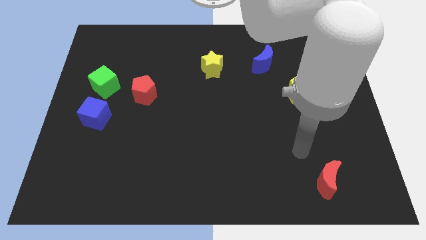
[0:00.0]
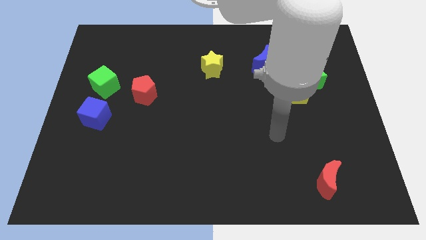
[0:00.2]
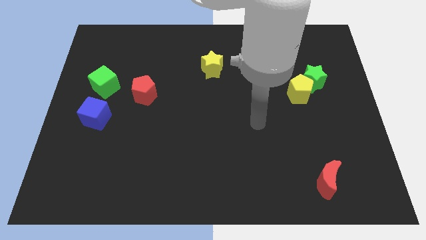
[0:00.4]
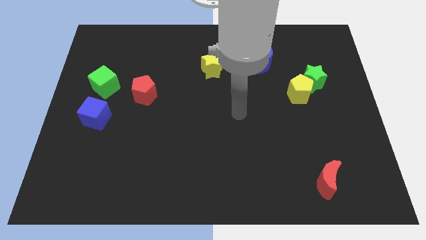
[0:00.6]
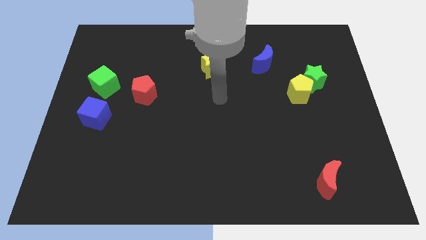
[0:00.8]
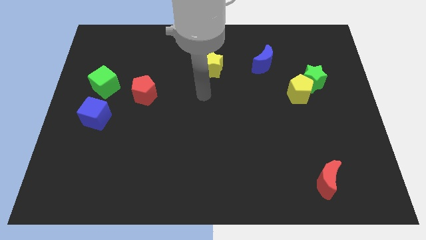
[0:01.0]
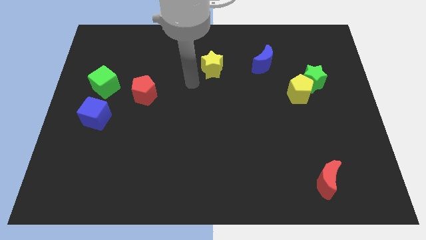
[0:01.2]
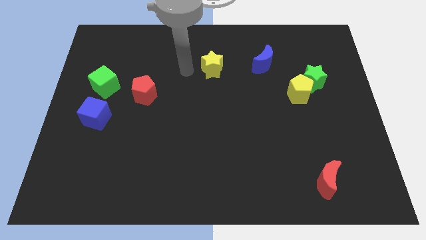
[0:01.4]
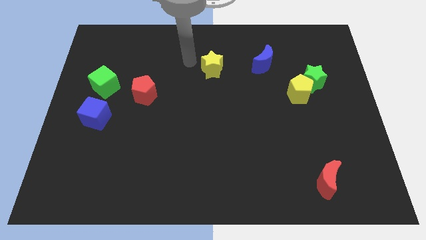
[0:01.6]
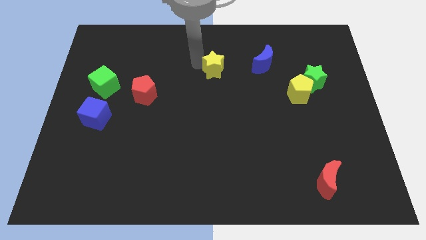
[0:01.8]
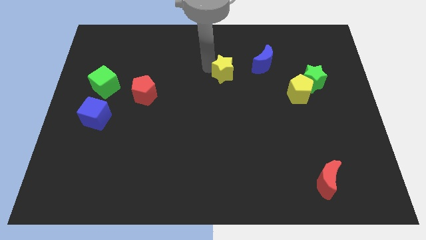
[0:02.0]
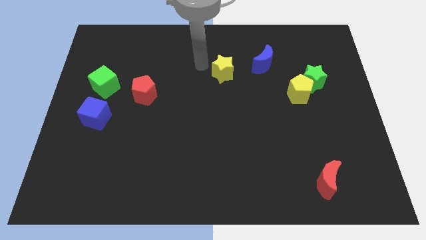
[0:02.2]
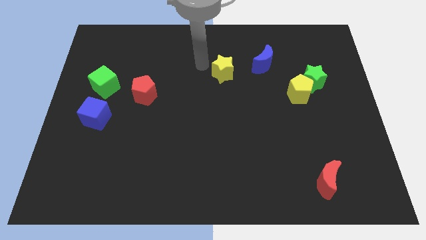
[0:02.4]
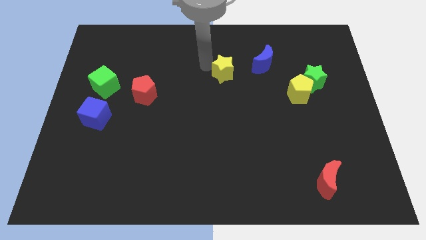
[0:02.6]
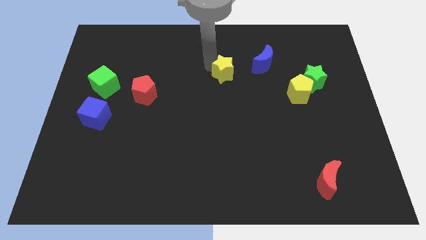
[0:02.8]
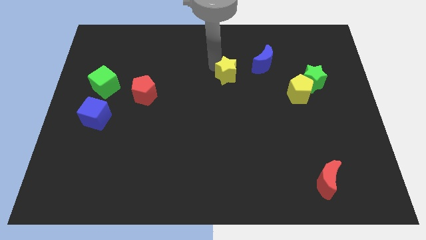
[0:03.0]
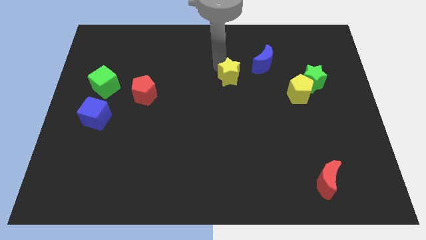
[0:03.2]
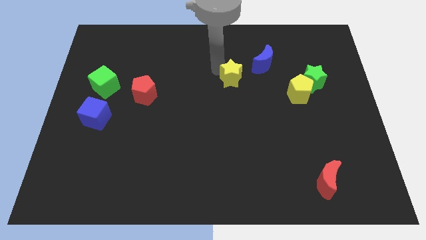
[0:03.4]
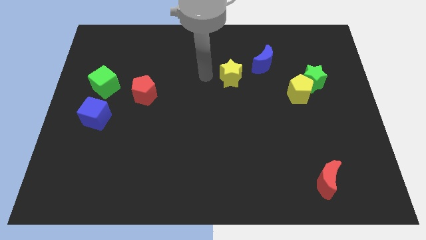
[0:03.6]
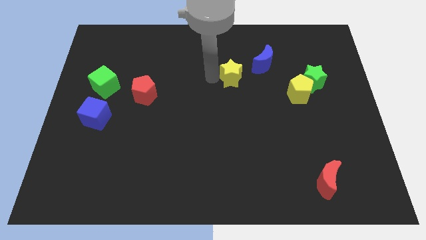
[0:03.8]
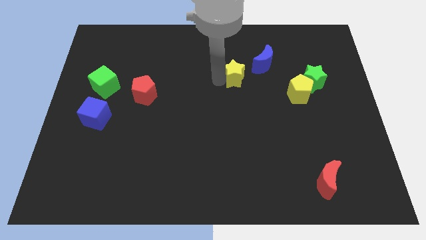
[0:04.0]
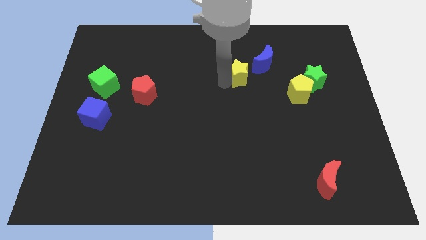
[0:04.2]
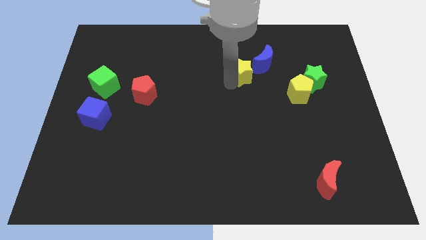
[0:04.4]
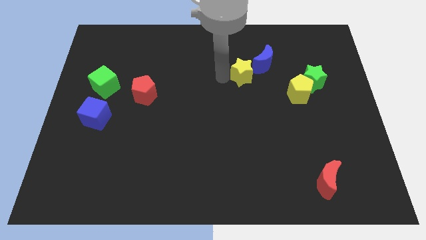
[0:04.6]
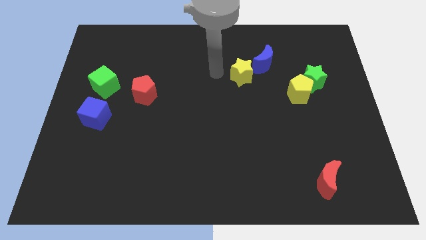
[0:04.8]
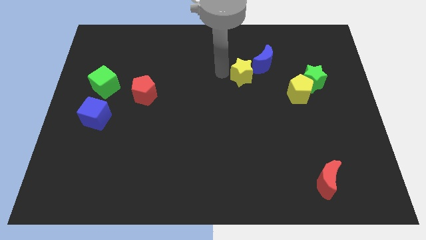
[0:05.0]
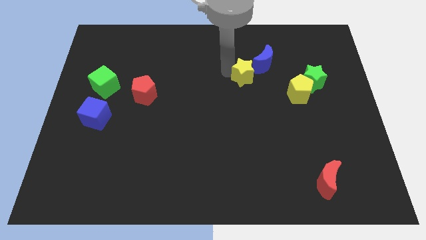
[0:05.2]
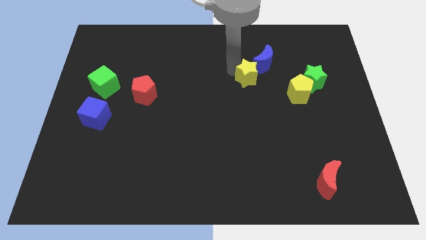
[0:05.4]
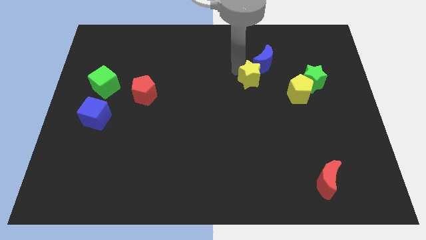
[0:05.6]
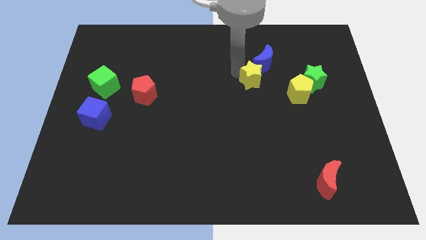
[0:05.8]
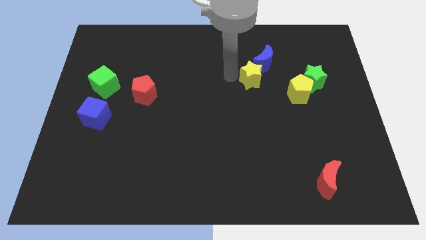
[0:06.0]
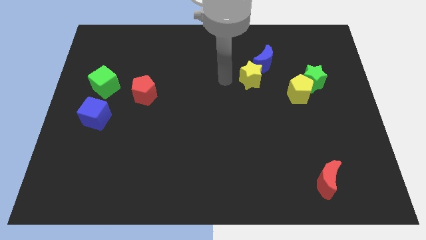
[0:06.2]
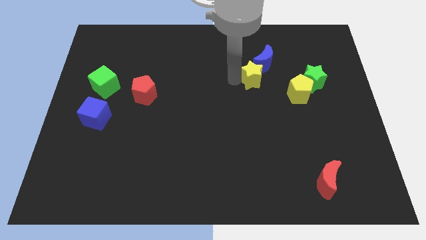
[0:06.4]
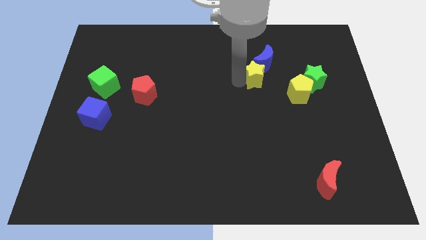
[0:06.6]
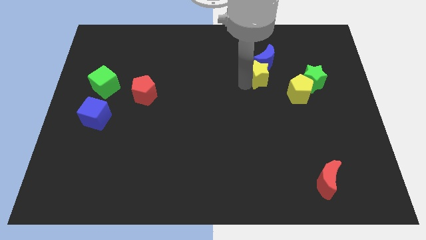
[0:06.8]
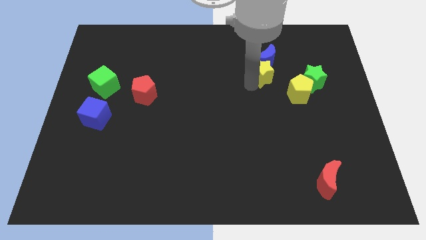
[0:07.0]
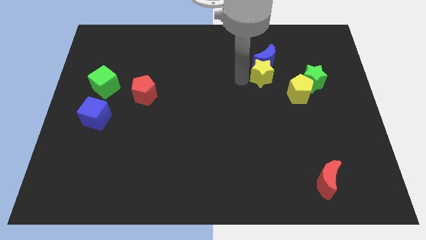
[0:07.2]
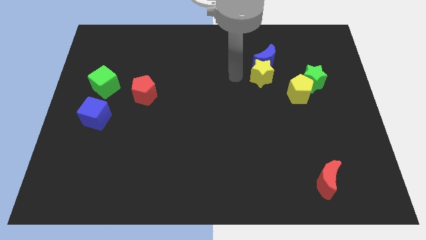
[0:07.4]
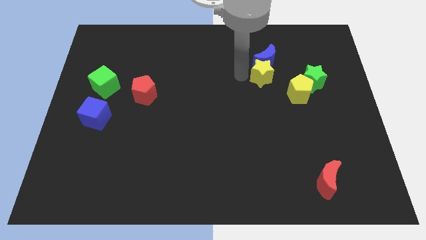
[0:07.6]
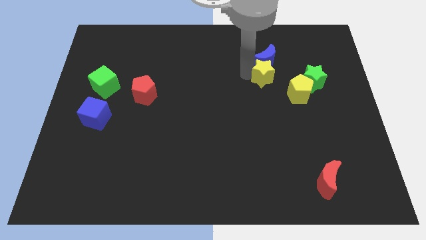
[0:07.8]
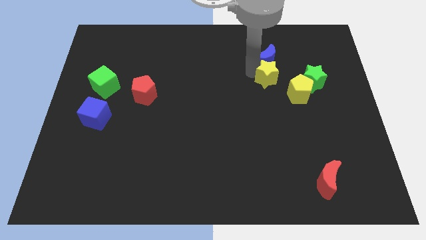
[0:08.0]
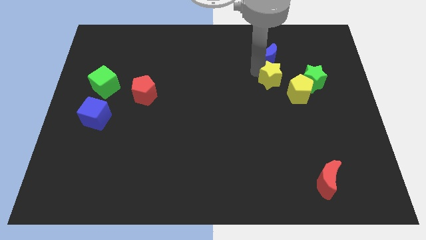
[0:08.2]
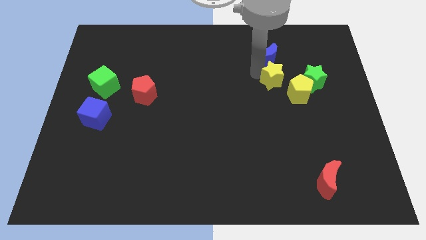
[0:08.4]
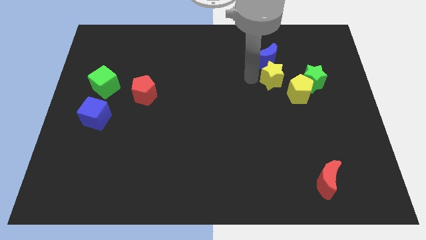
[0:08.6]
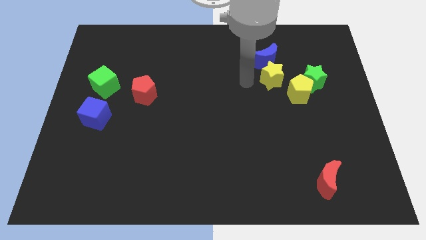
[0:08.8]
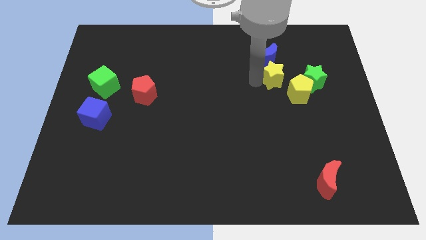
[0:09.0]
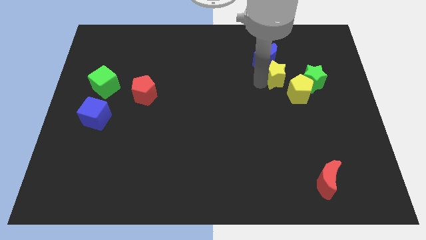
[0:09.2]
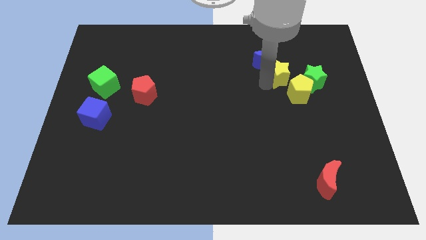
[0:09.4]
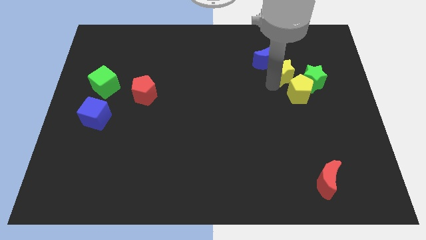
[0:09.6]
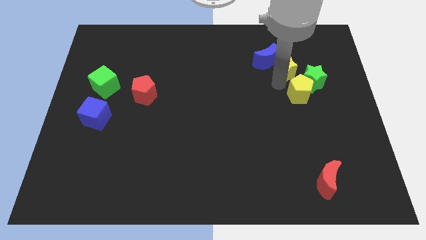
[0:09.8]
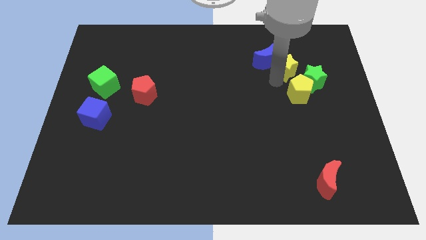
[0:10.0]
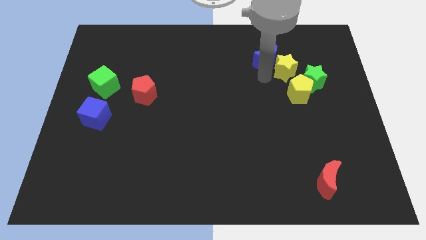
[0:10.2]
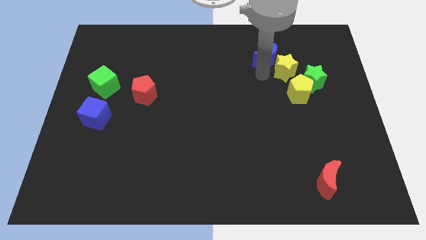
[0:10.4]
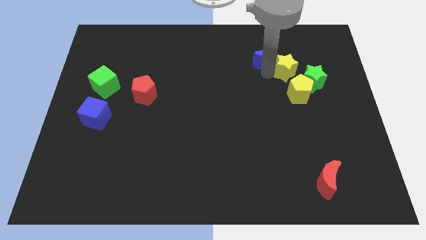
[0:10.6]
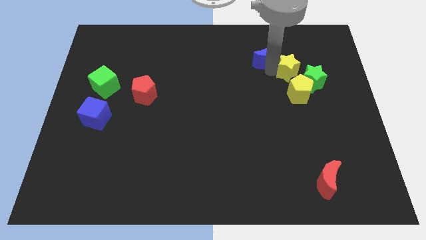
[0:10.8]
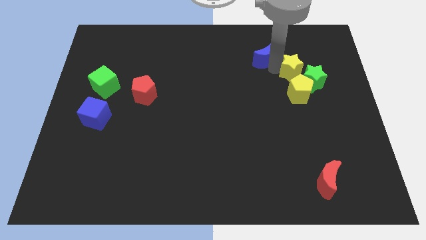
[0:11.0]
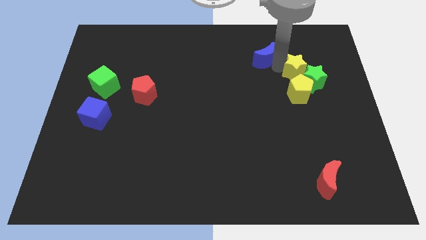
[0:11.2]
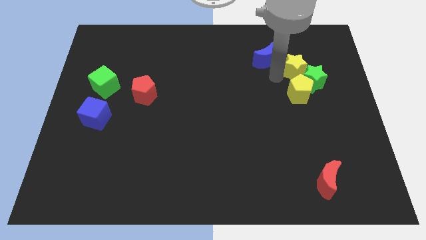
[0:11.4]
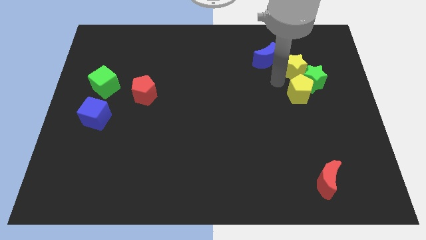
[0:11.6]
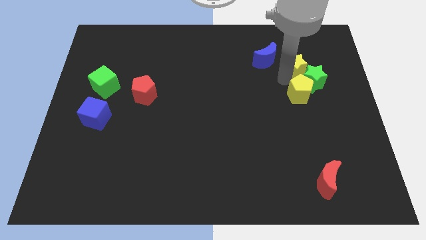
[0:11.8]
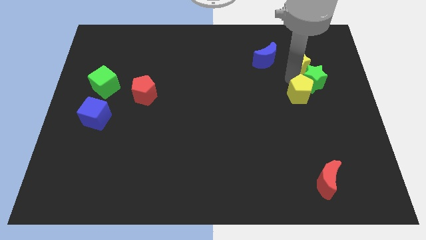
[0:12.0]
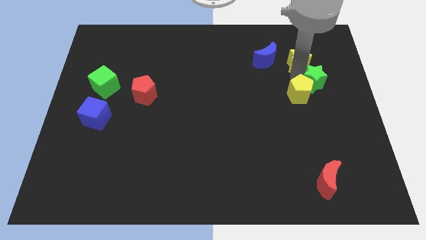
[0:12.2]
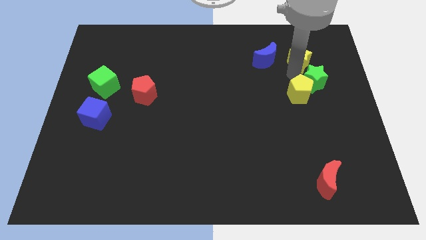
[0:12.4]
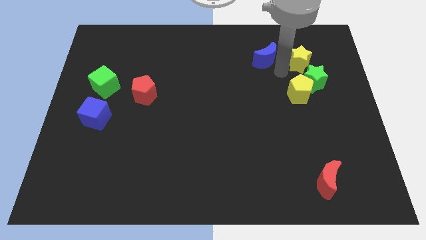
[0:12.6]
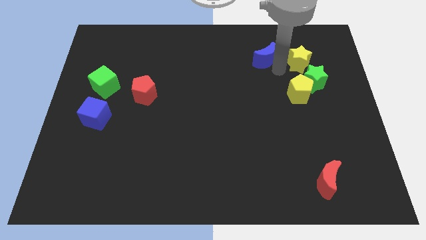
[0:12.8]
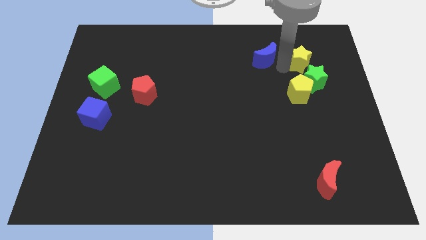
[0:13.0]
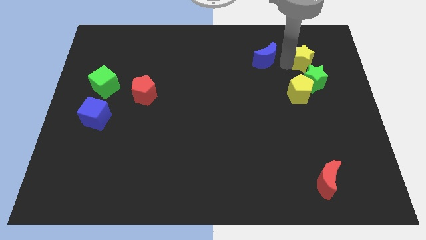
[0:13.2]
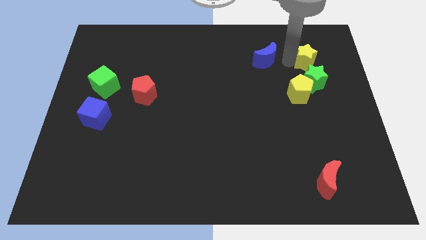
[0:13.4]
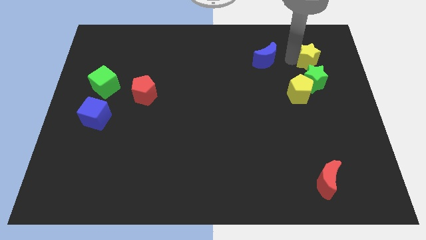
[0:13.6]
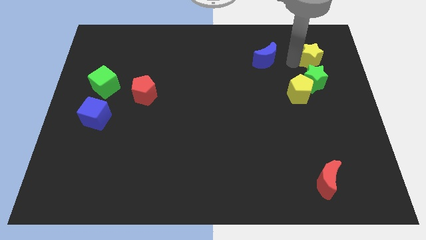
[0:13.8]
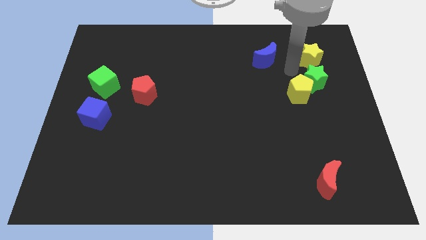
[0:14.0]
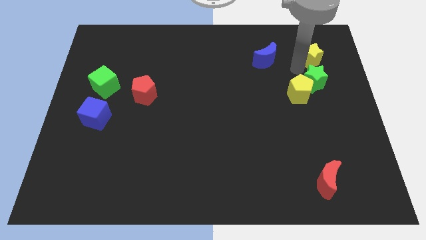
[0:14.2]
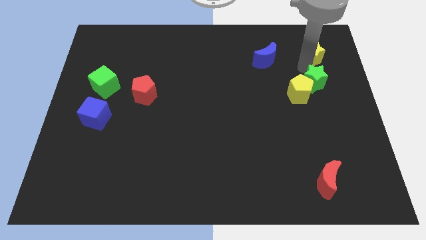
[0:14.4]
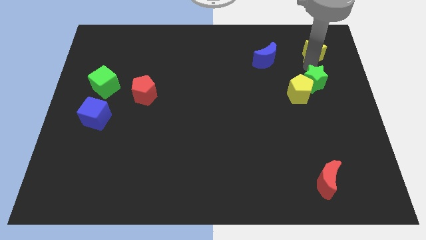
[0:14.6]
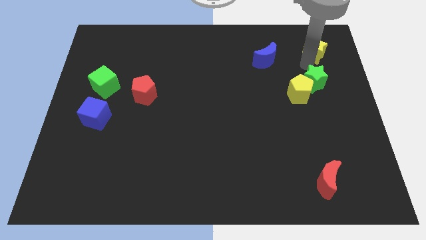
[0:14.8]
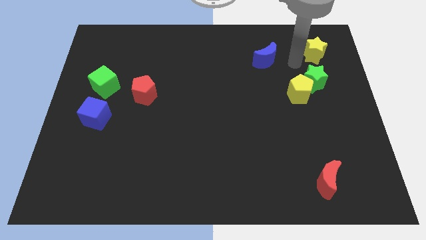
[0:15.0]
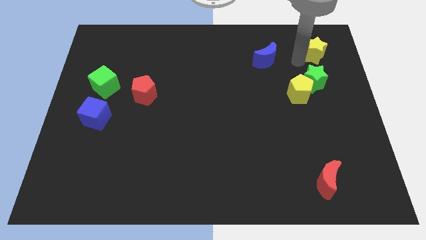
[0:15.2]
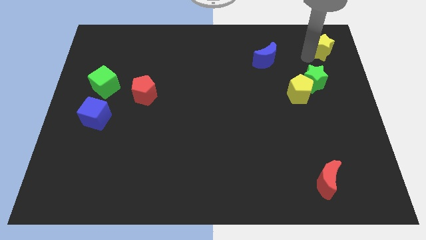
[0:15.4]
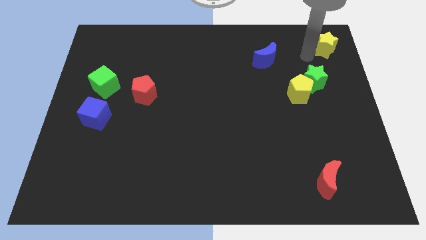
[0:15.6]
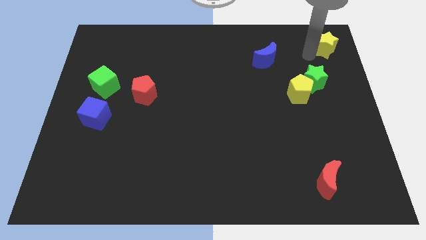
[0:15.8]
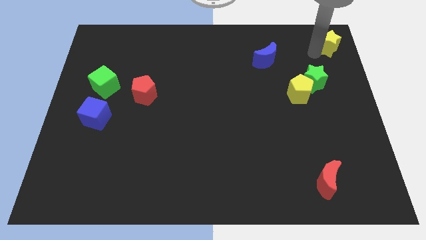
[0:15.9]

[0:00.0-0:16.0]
move the yellow star to the top right
